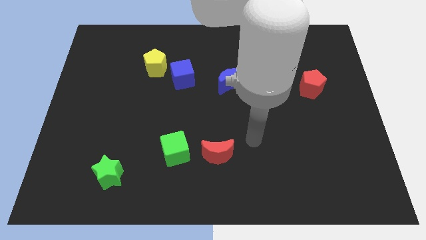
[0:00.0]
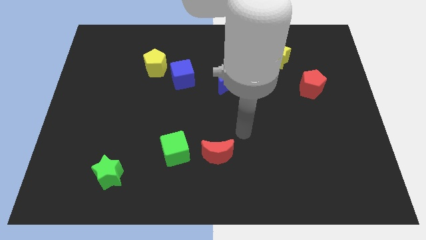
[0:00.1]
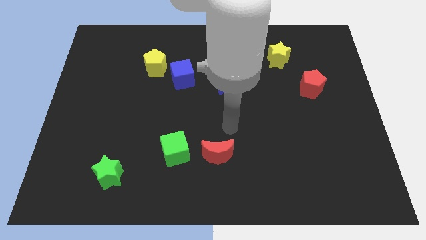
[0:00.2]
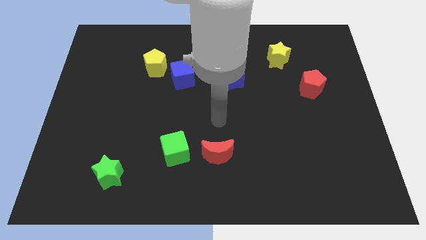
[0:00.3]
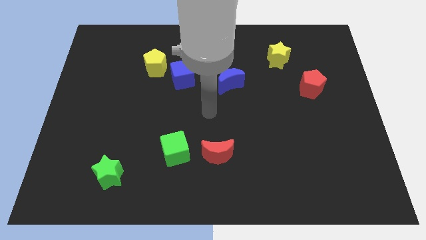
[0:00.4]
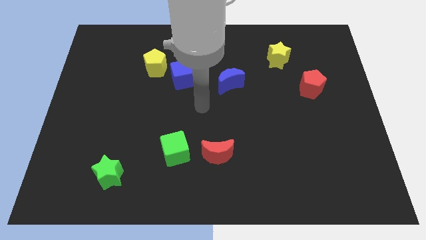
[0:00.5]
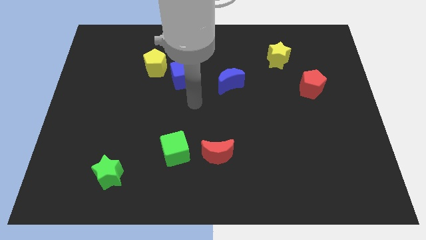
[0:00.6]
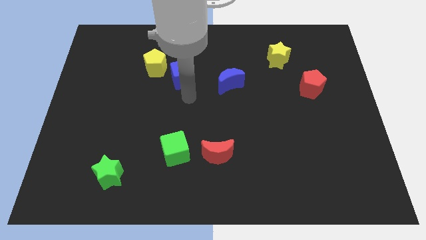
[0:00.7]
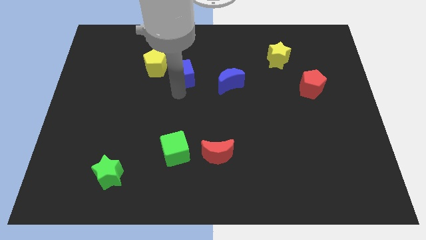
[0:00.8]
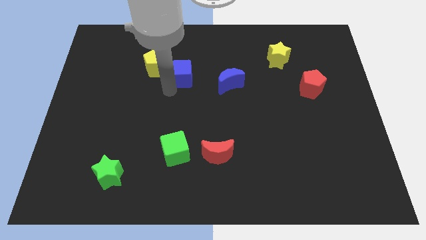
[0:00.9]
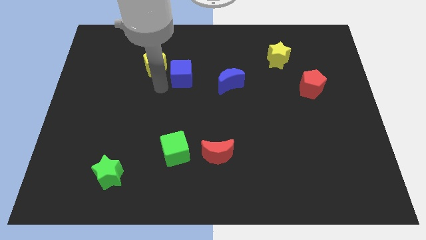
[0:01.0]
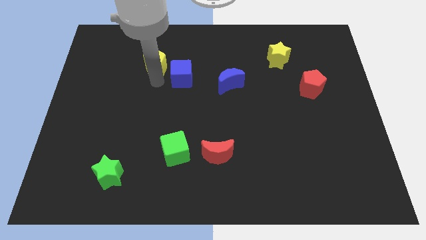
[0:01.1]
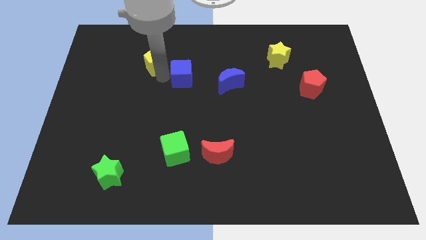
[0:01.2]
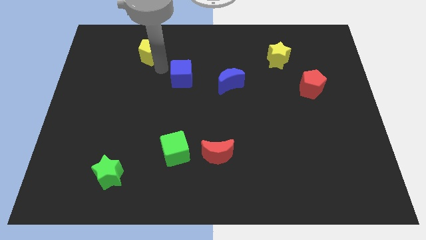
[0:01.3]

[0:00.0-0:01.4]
separate the blue cube from the yellow pentagon

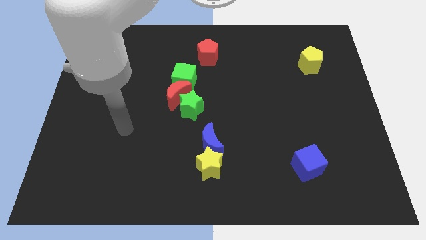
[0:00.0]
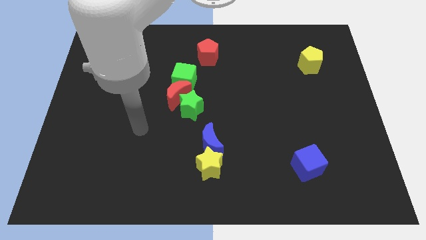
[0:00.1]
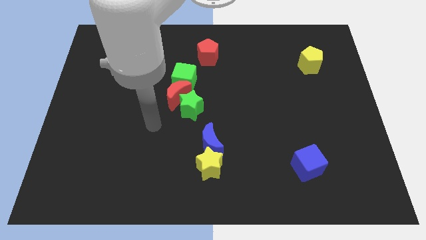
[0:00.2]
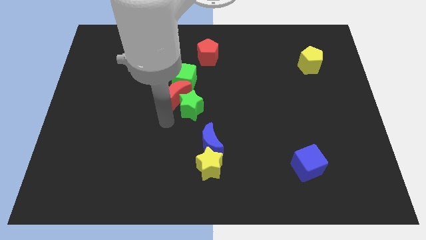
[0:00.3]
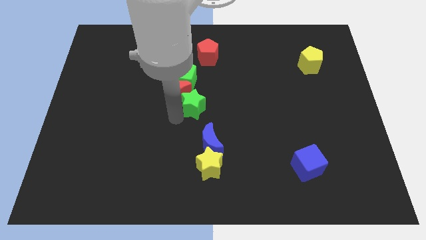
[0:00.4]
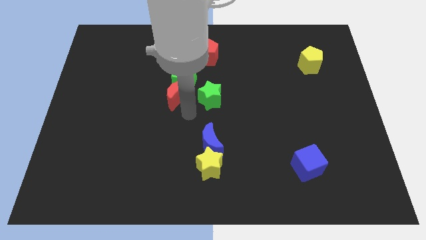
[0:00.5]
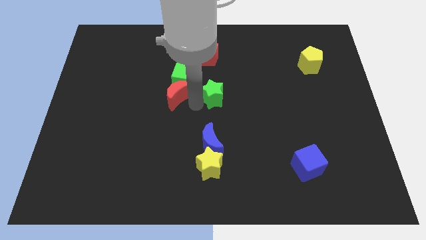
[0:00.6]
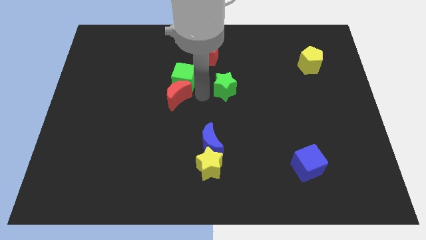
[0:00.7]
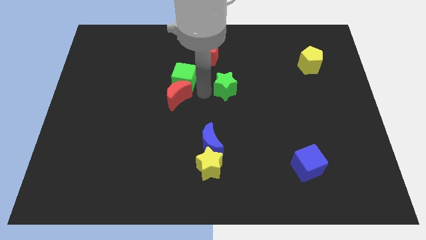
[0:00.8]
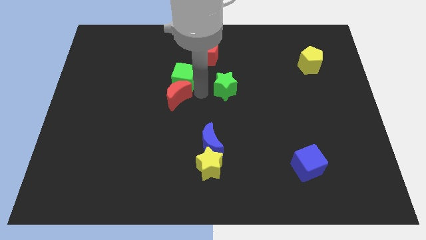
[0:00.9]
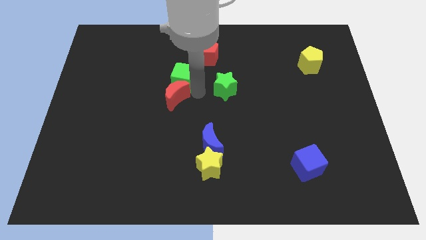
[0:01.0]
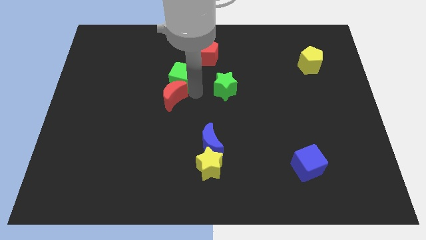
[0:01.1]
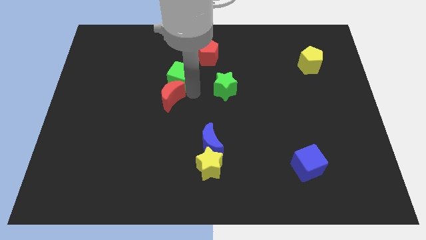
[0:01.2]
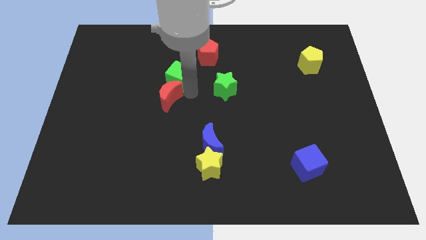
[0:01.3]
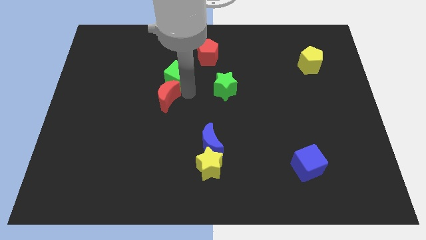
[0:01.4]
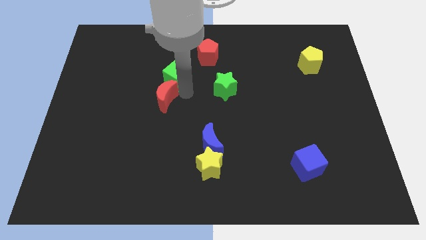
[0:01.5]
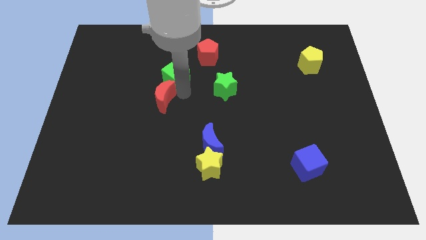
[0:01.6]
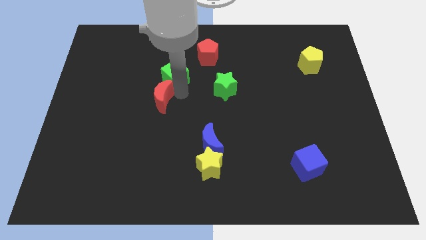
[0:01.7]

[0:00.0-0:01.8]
pull the red moon apart from the green star and green cube

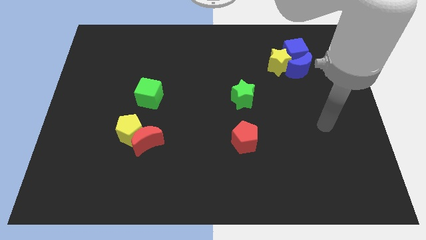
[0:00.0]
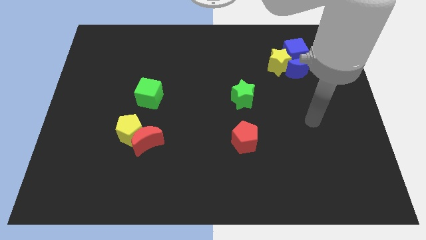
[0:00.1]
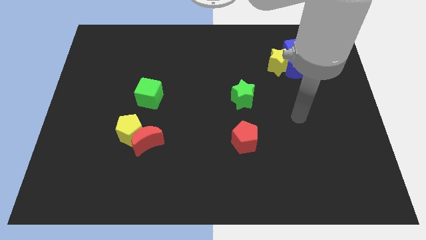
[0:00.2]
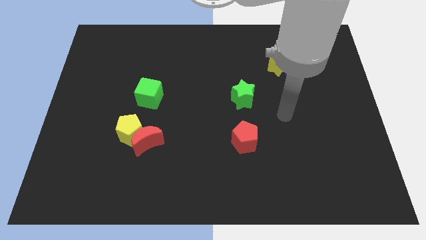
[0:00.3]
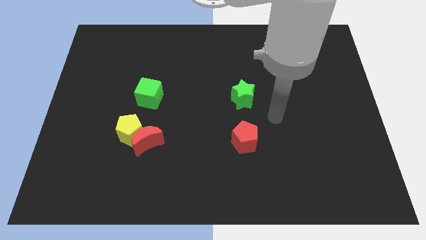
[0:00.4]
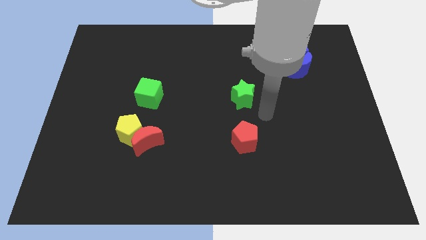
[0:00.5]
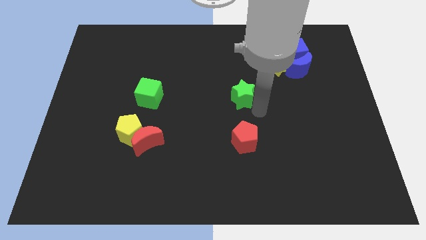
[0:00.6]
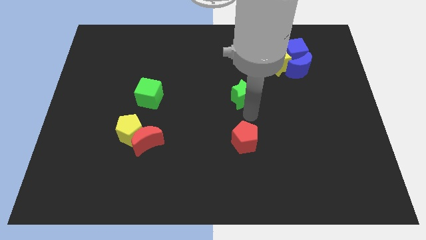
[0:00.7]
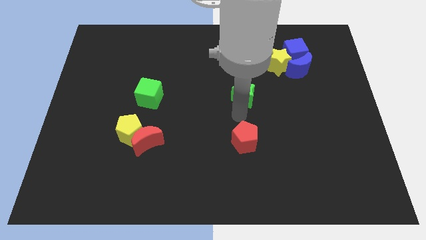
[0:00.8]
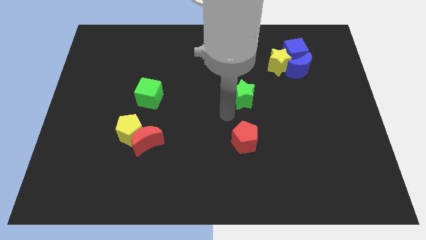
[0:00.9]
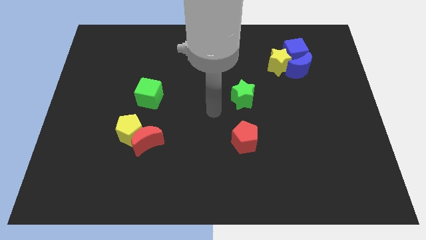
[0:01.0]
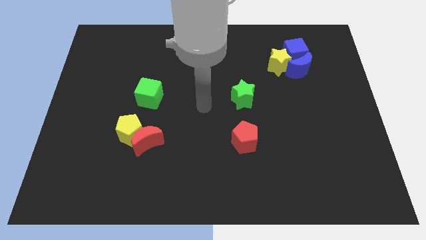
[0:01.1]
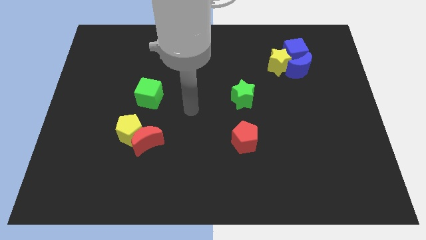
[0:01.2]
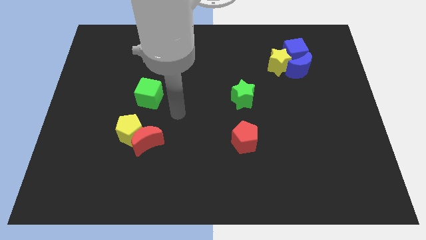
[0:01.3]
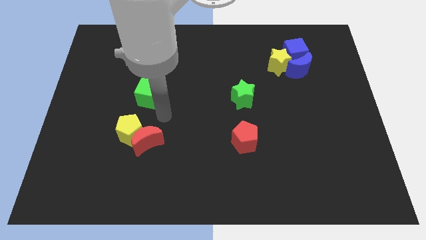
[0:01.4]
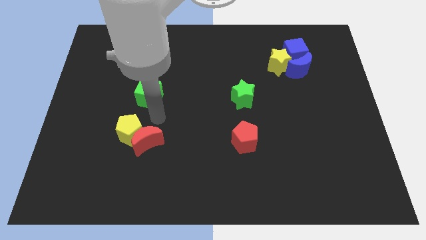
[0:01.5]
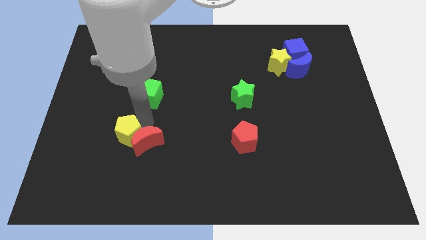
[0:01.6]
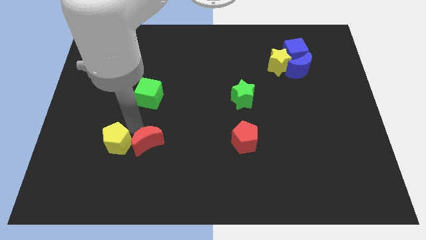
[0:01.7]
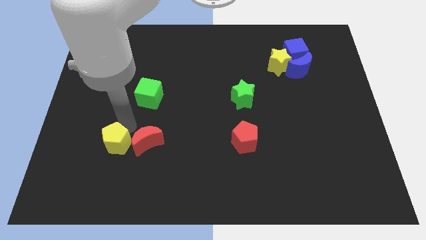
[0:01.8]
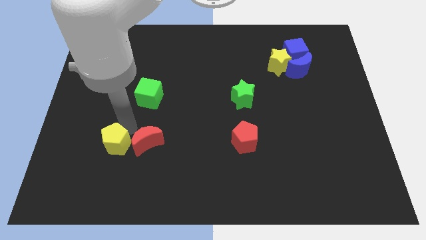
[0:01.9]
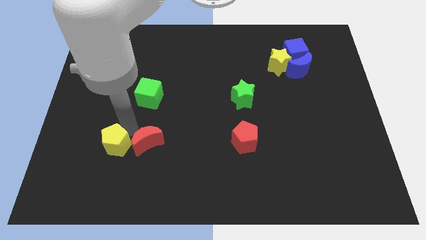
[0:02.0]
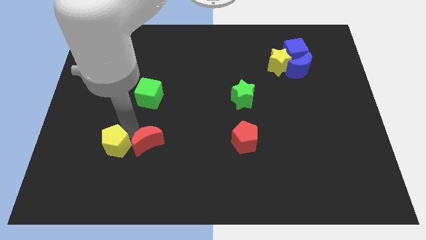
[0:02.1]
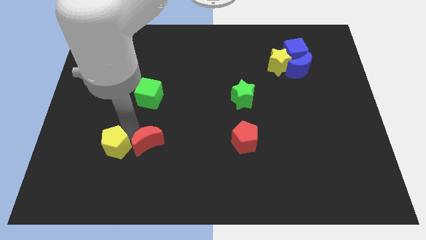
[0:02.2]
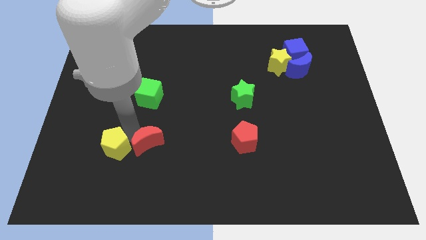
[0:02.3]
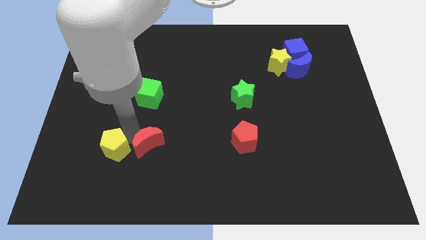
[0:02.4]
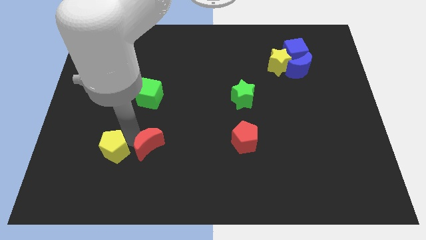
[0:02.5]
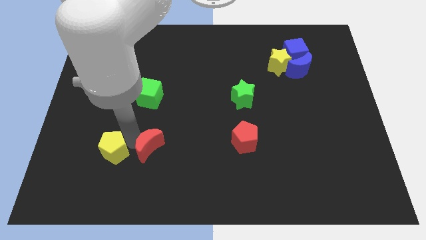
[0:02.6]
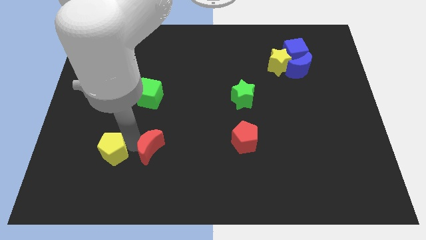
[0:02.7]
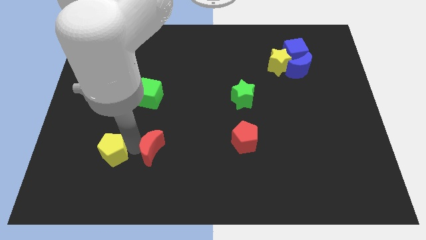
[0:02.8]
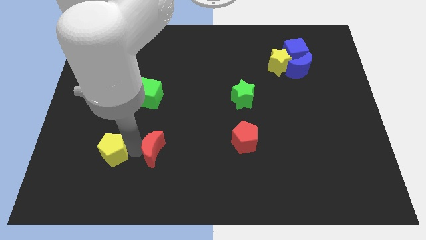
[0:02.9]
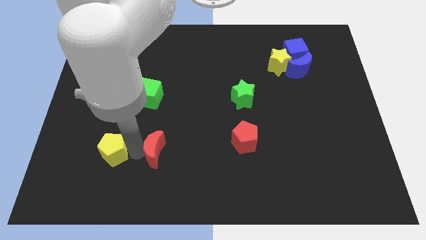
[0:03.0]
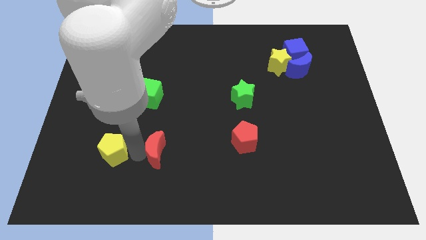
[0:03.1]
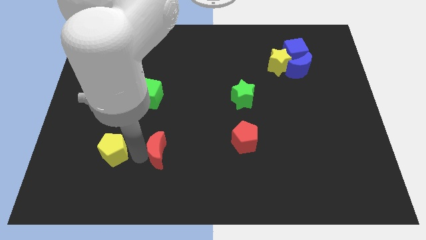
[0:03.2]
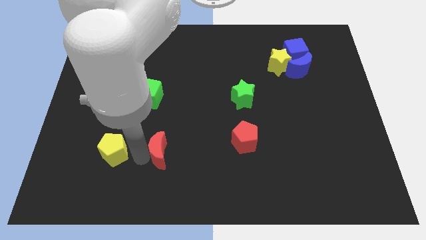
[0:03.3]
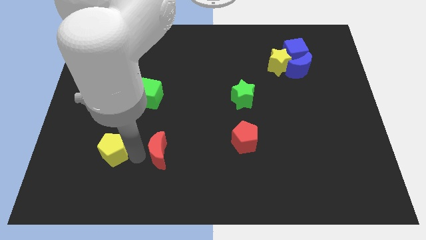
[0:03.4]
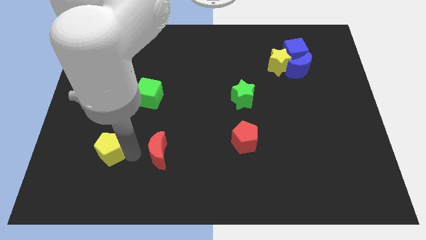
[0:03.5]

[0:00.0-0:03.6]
pull the red moon apart from the yellow pentagon

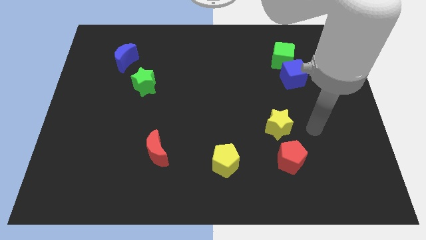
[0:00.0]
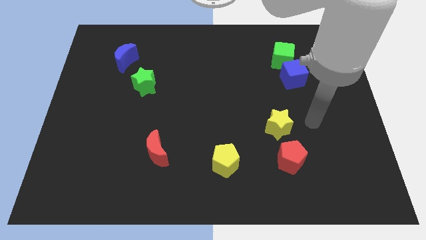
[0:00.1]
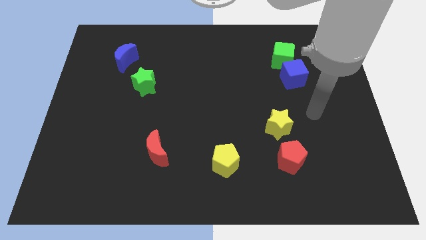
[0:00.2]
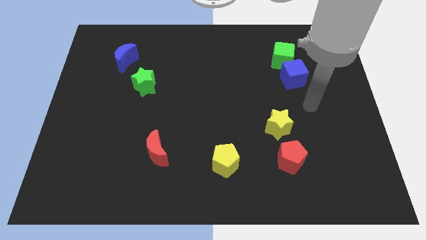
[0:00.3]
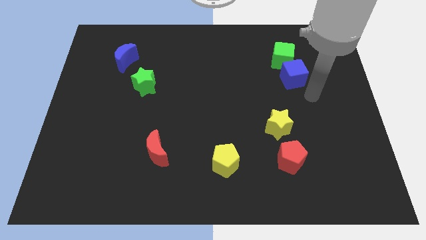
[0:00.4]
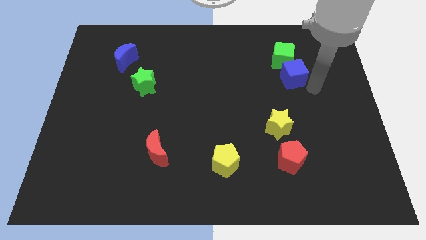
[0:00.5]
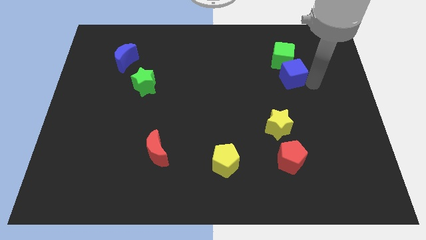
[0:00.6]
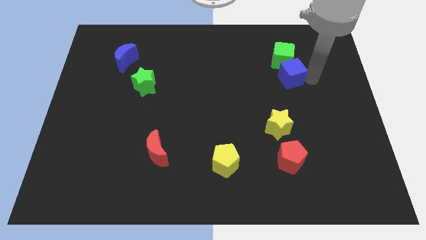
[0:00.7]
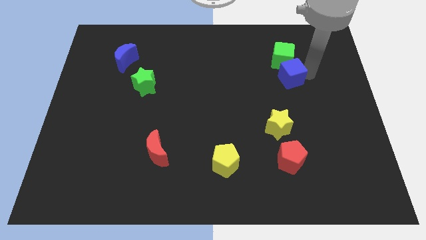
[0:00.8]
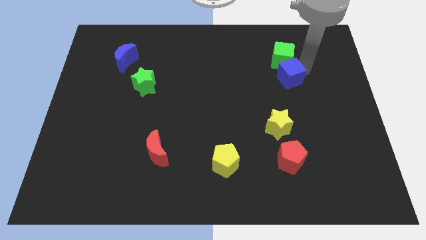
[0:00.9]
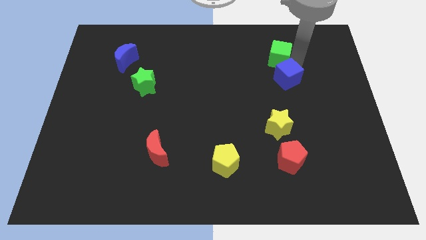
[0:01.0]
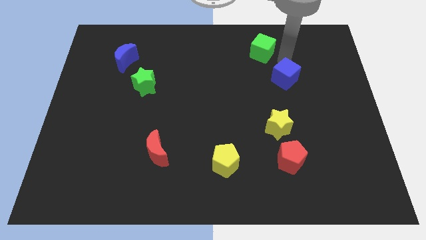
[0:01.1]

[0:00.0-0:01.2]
move the blue cube away from the green cube

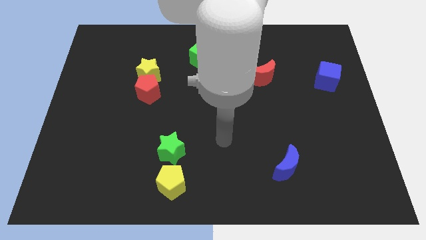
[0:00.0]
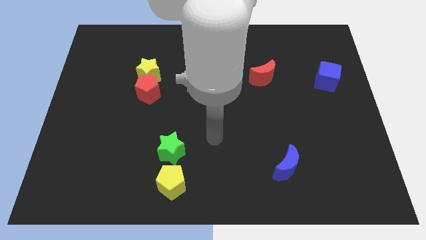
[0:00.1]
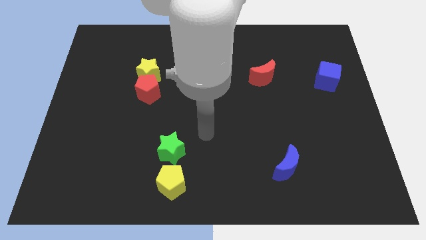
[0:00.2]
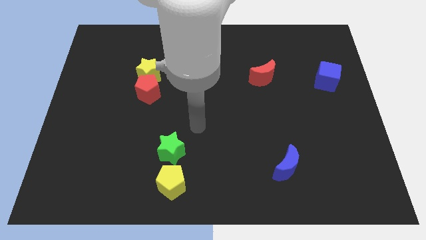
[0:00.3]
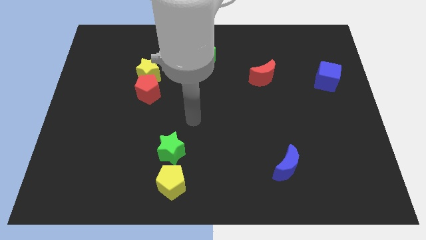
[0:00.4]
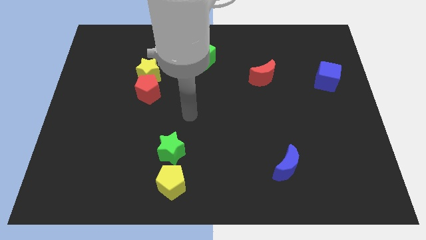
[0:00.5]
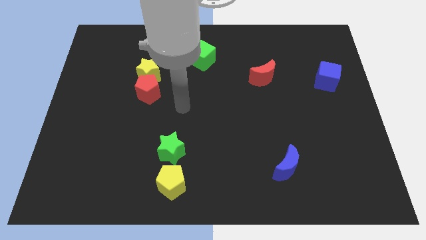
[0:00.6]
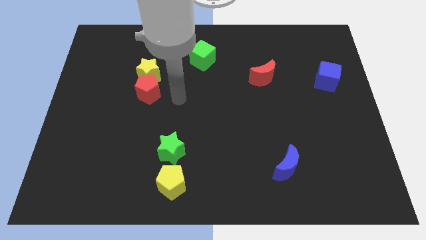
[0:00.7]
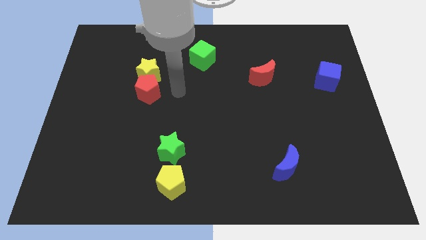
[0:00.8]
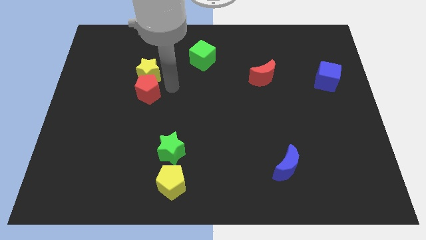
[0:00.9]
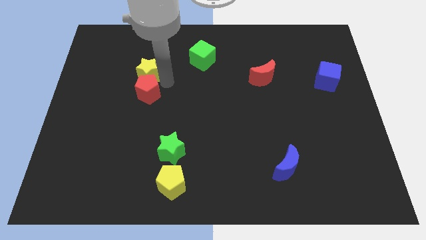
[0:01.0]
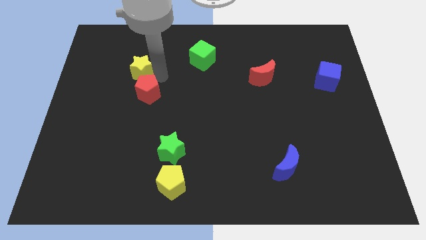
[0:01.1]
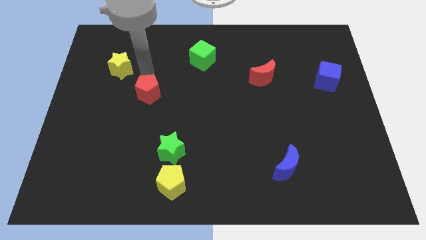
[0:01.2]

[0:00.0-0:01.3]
pull the red pentagon apart from the yellow star
